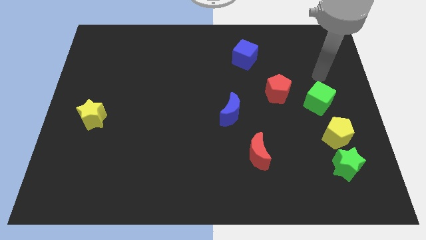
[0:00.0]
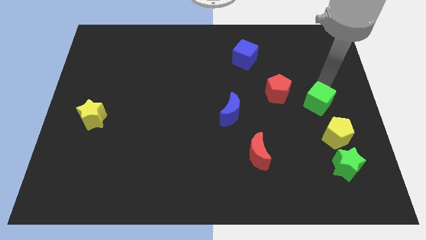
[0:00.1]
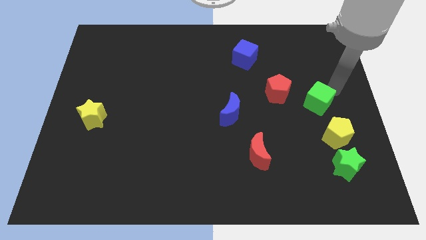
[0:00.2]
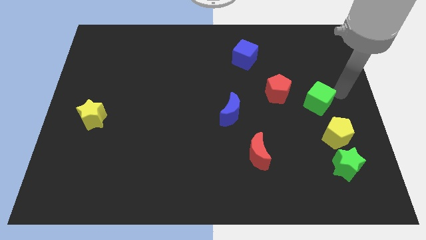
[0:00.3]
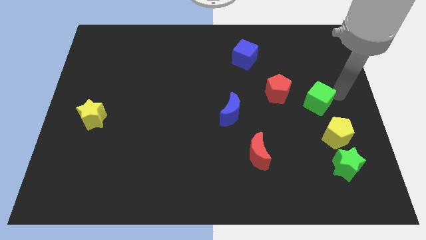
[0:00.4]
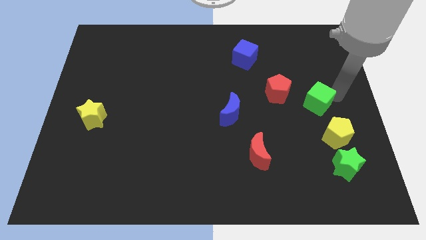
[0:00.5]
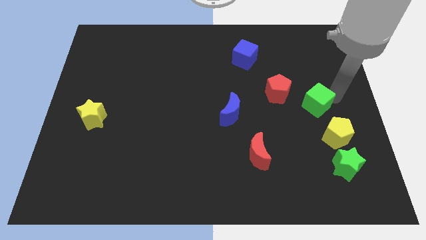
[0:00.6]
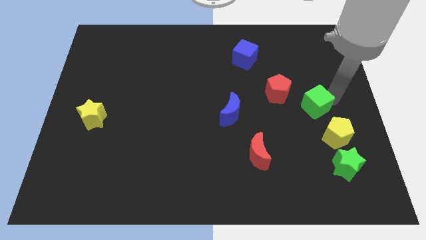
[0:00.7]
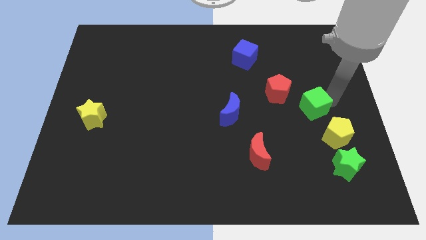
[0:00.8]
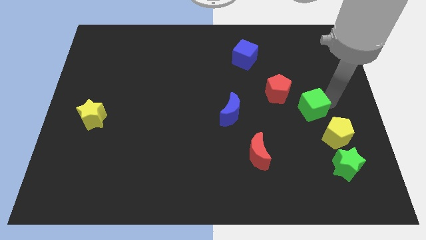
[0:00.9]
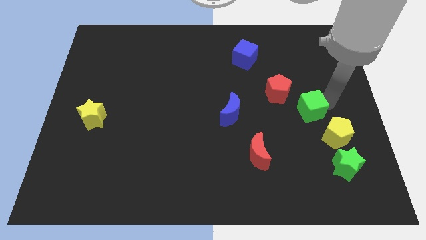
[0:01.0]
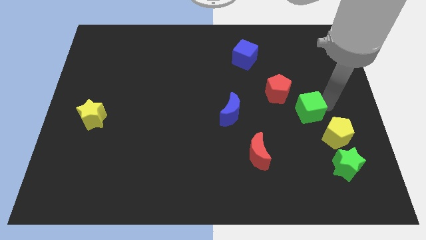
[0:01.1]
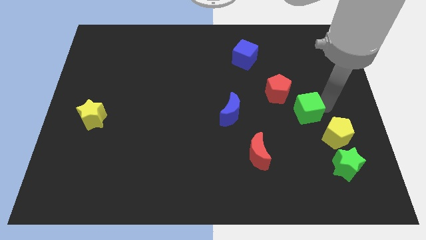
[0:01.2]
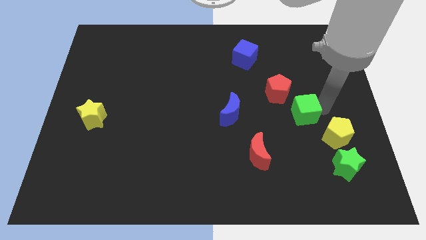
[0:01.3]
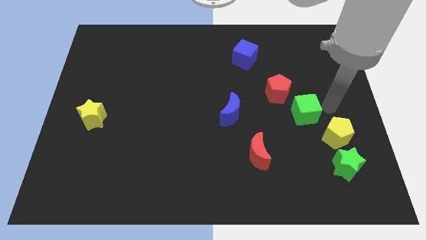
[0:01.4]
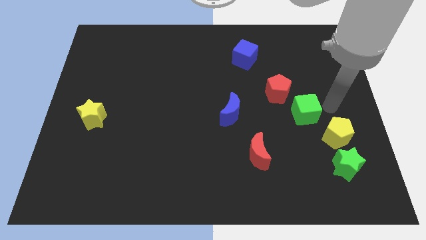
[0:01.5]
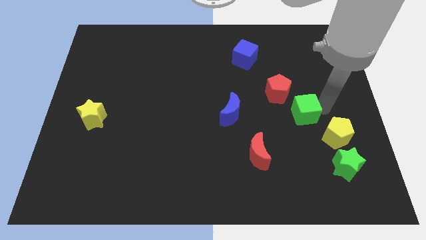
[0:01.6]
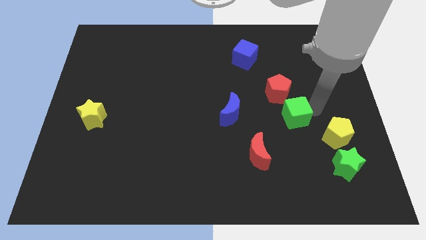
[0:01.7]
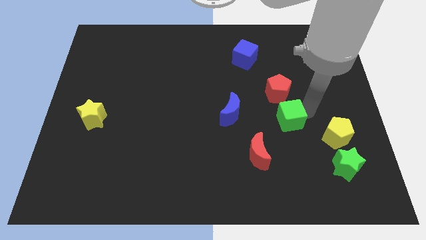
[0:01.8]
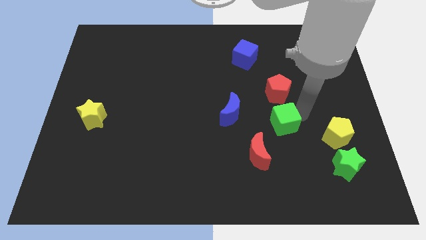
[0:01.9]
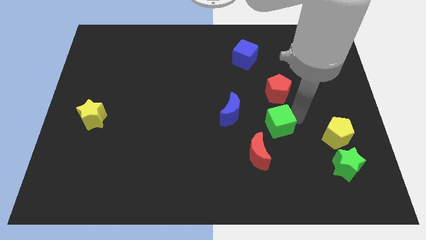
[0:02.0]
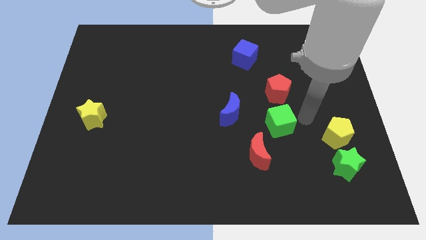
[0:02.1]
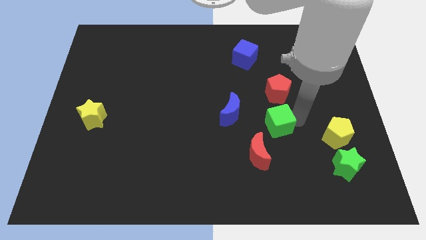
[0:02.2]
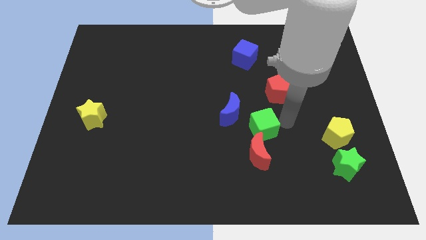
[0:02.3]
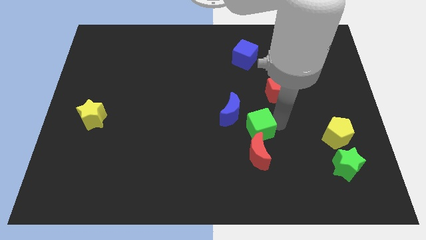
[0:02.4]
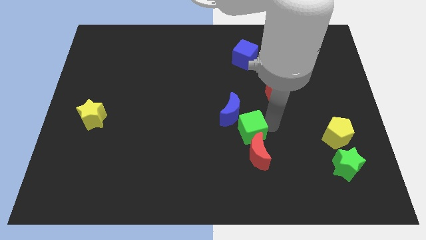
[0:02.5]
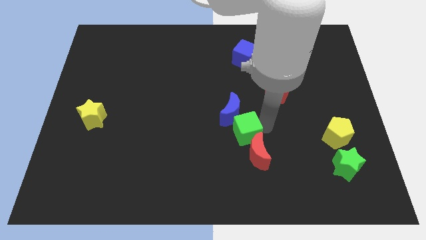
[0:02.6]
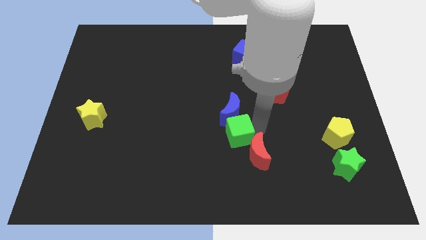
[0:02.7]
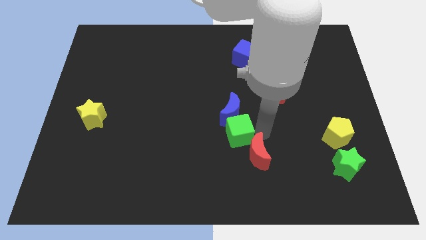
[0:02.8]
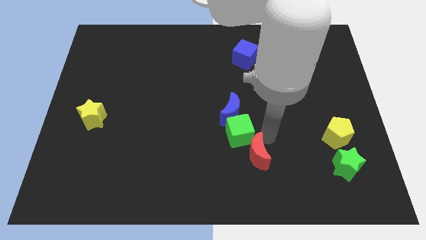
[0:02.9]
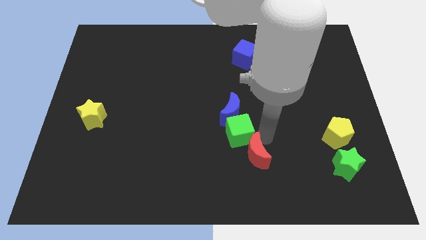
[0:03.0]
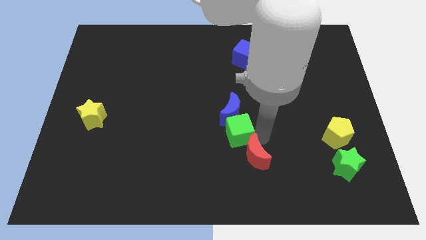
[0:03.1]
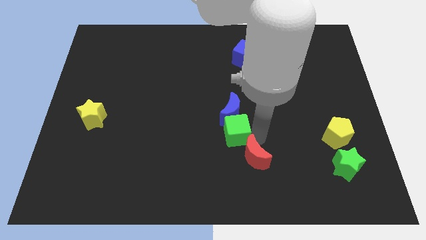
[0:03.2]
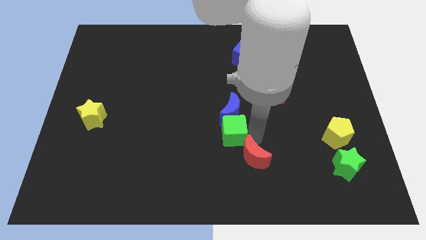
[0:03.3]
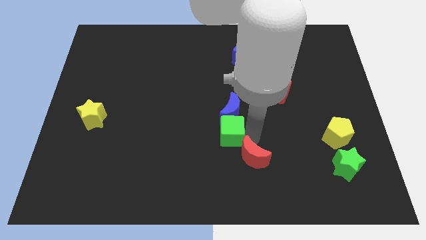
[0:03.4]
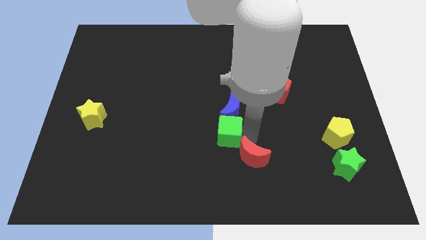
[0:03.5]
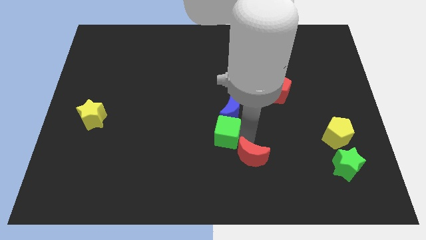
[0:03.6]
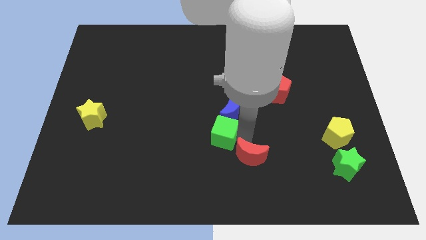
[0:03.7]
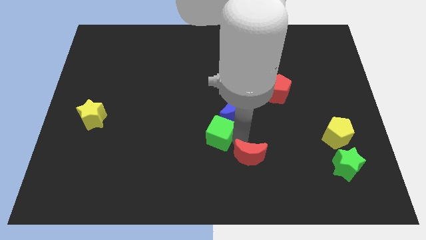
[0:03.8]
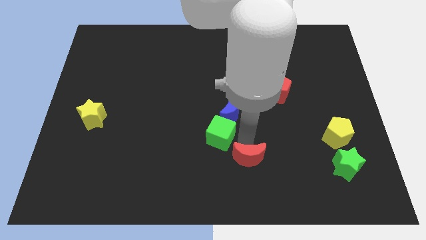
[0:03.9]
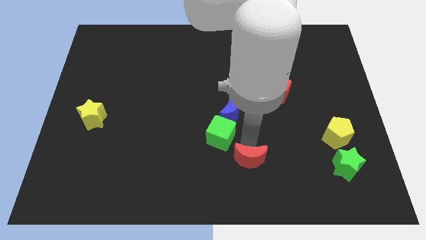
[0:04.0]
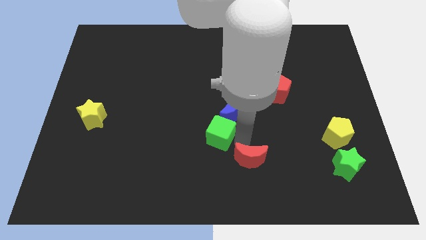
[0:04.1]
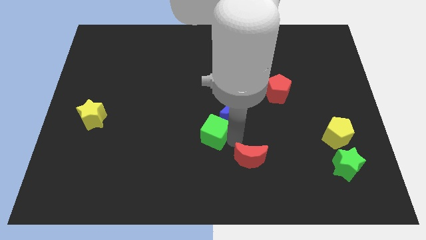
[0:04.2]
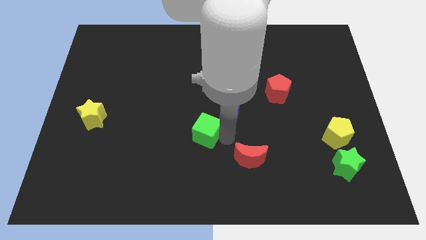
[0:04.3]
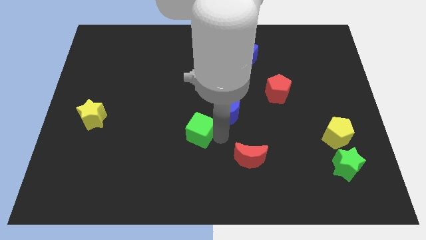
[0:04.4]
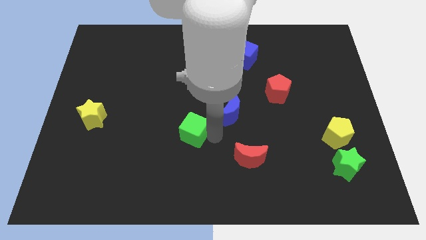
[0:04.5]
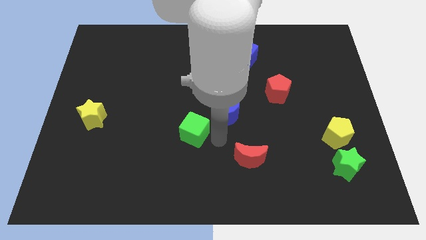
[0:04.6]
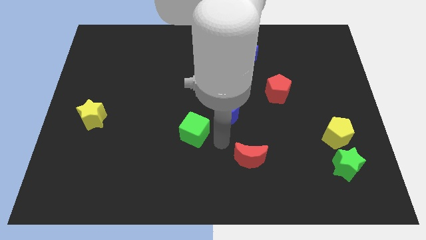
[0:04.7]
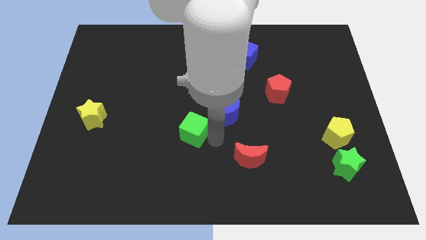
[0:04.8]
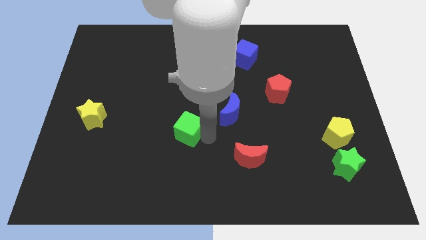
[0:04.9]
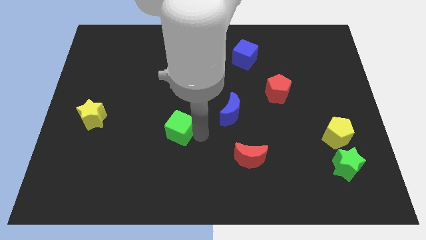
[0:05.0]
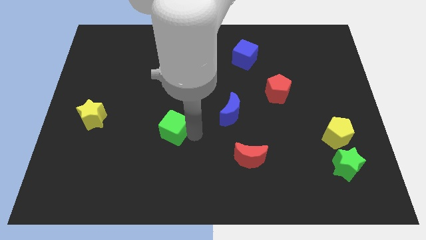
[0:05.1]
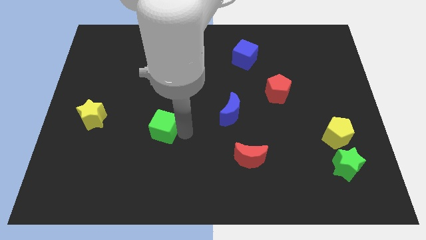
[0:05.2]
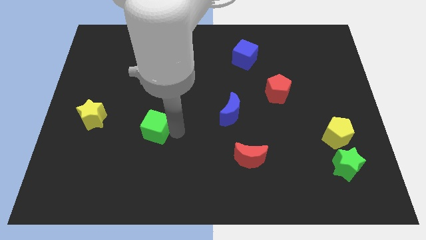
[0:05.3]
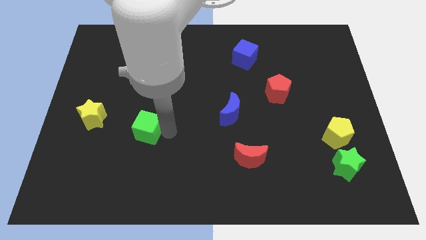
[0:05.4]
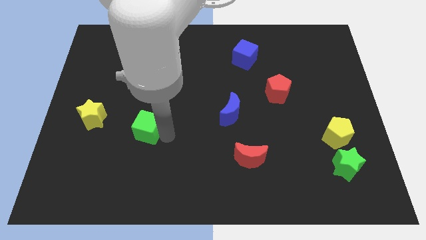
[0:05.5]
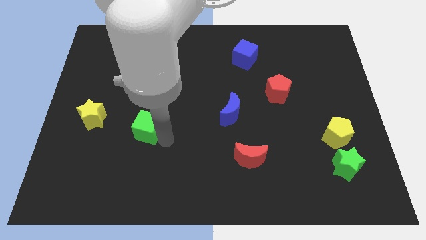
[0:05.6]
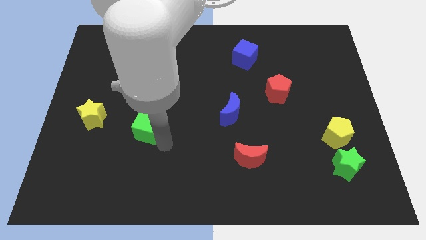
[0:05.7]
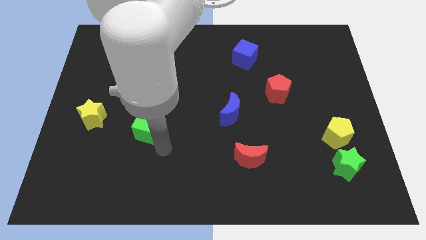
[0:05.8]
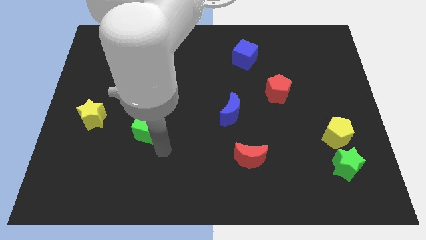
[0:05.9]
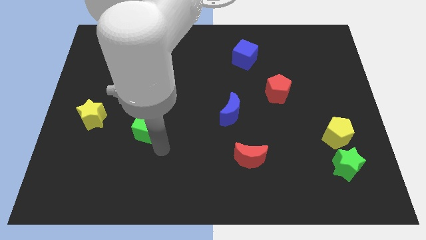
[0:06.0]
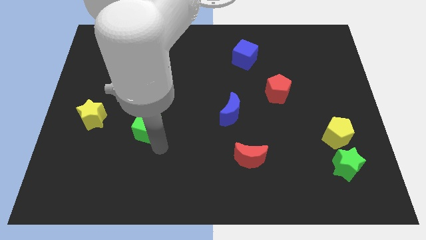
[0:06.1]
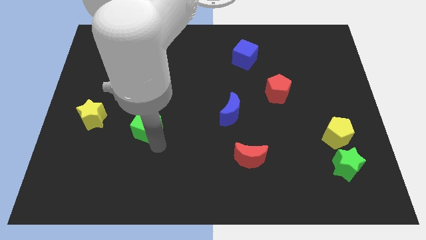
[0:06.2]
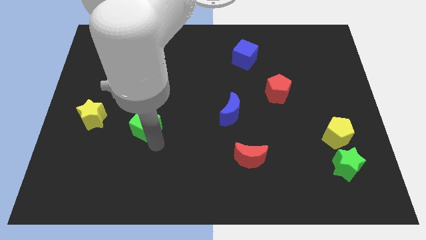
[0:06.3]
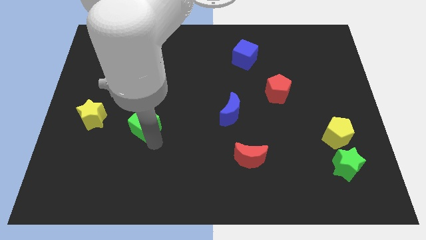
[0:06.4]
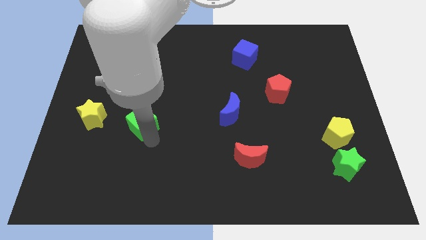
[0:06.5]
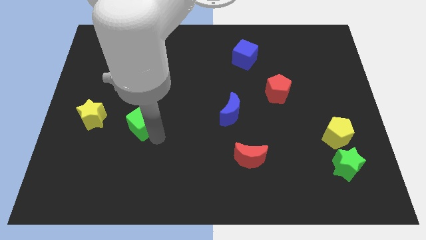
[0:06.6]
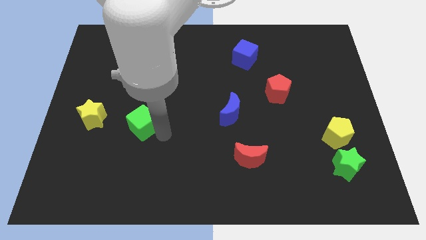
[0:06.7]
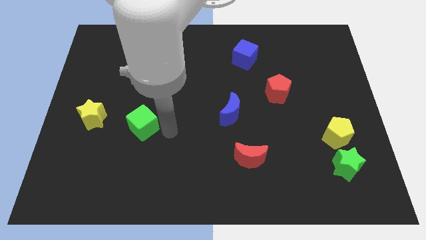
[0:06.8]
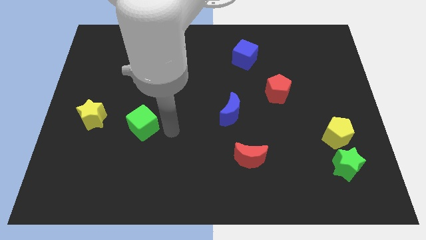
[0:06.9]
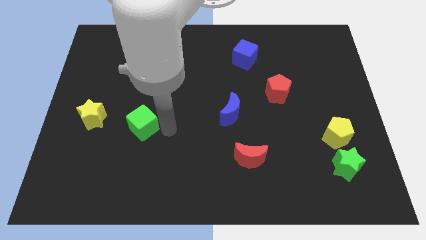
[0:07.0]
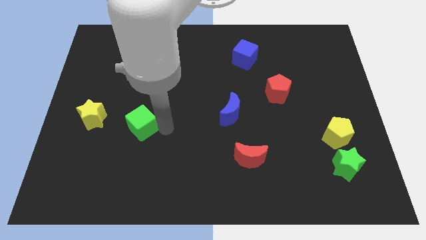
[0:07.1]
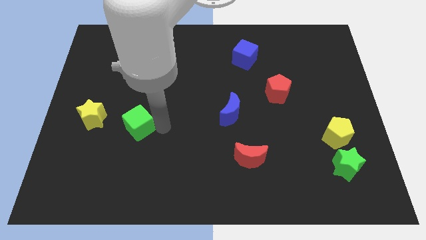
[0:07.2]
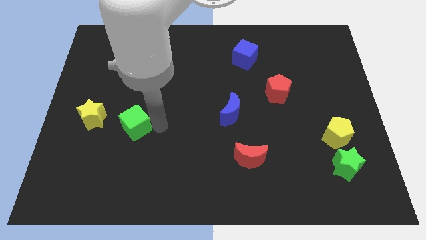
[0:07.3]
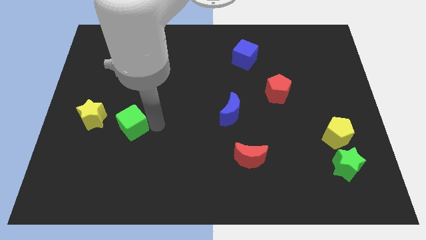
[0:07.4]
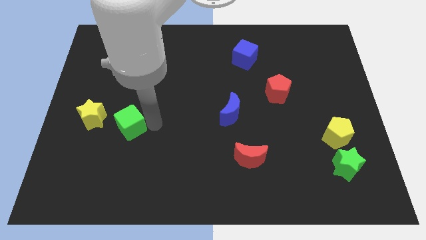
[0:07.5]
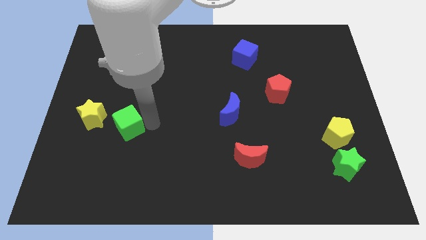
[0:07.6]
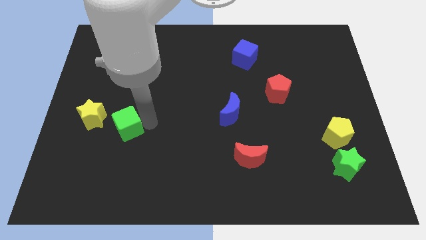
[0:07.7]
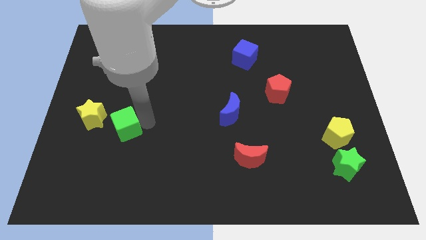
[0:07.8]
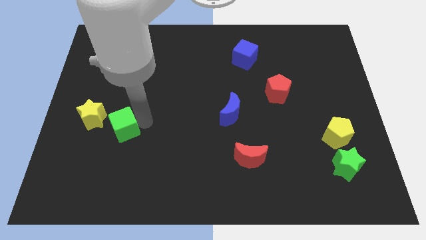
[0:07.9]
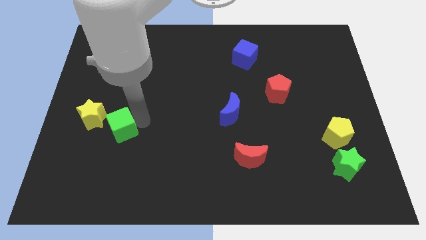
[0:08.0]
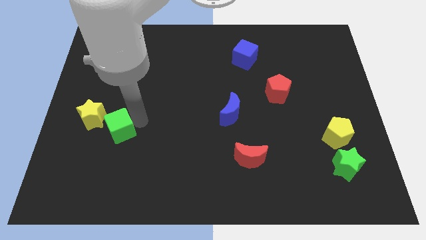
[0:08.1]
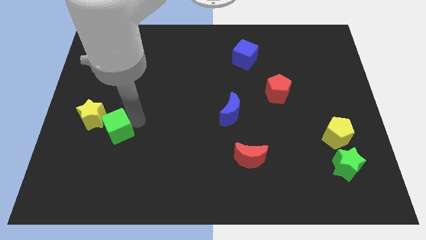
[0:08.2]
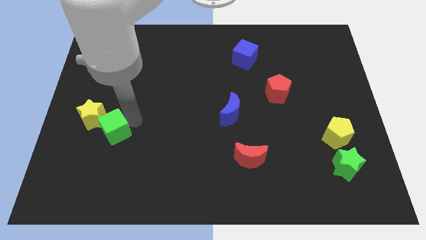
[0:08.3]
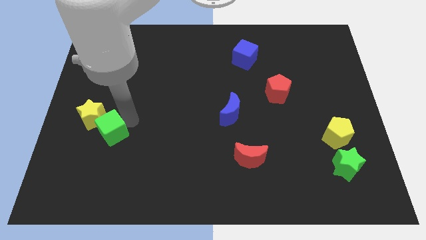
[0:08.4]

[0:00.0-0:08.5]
put the green cube next to the yellow star
